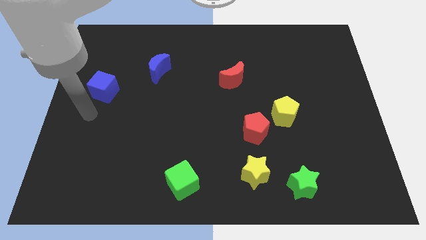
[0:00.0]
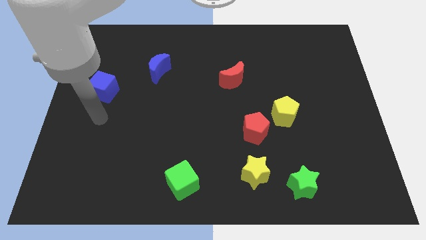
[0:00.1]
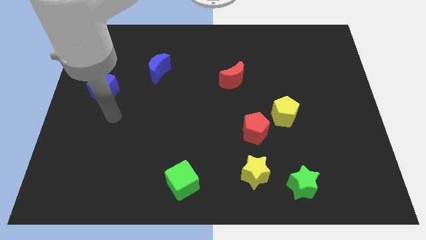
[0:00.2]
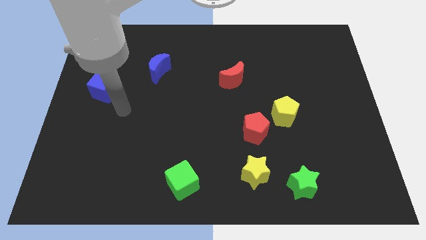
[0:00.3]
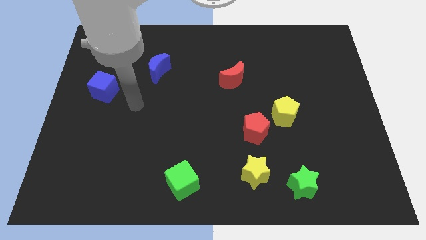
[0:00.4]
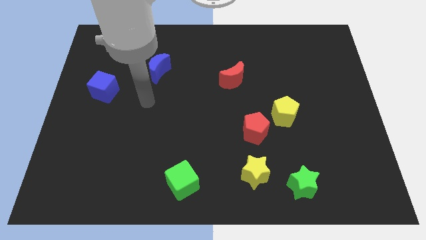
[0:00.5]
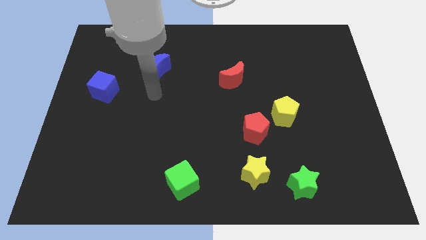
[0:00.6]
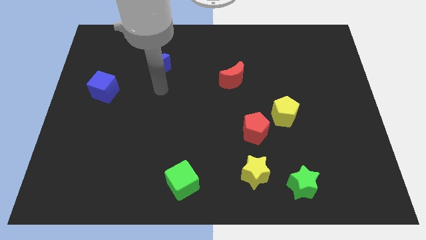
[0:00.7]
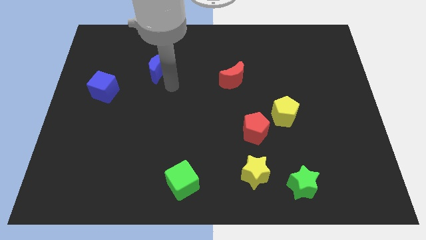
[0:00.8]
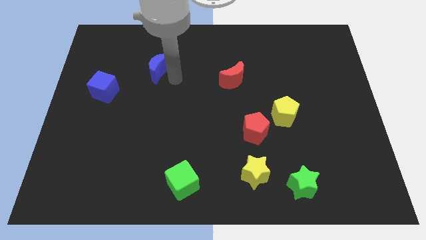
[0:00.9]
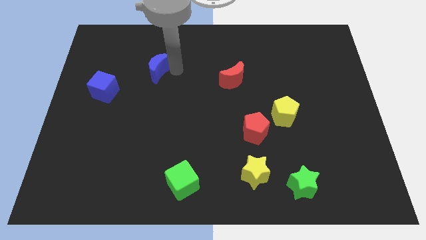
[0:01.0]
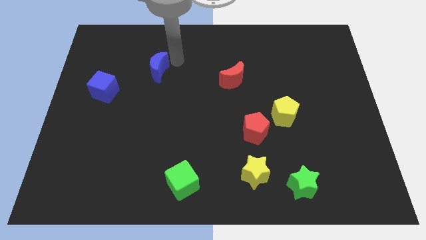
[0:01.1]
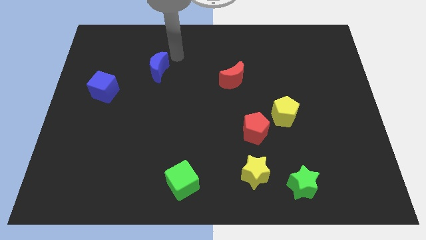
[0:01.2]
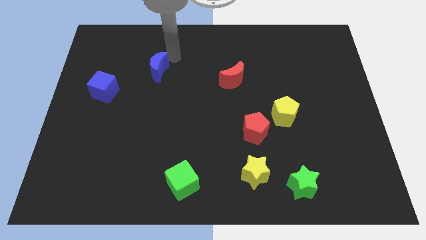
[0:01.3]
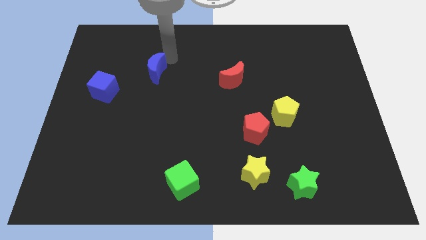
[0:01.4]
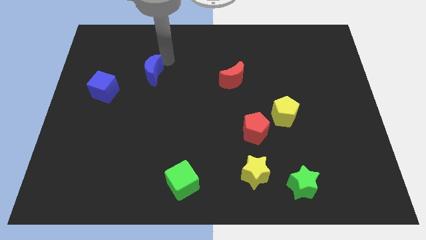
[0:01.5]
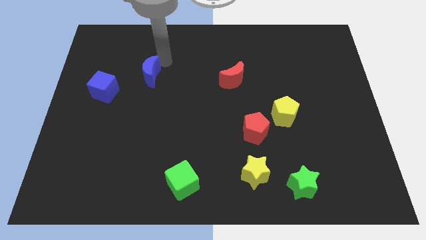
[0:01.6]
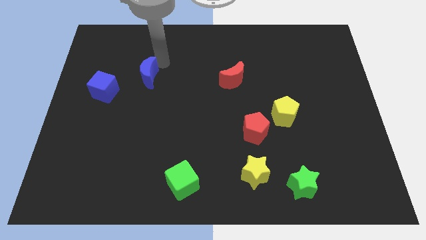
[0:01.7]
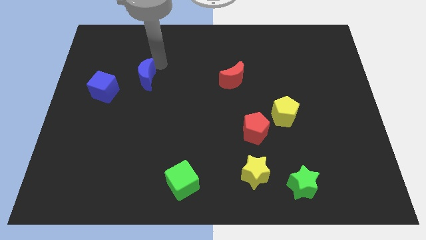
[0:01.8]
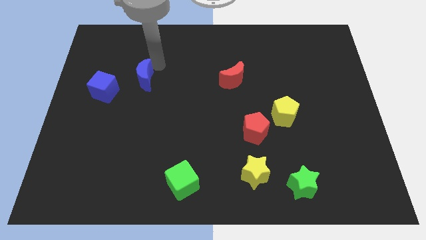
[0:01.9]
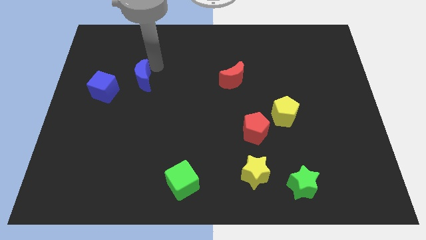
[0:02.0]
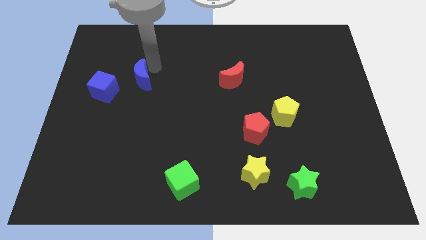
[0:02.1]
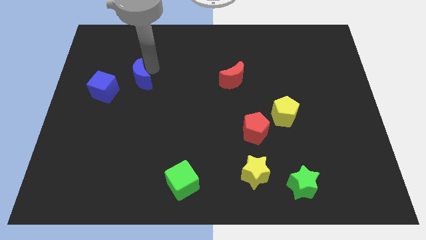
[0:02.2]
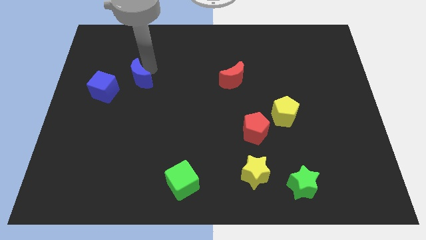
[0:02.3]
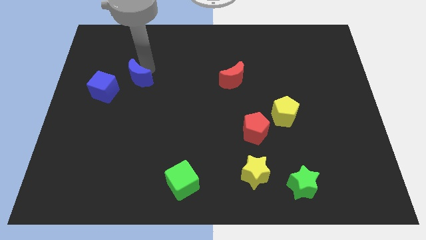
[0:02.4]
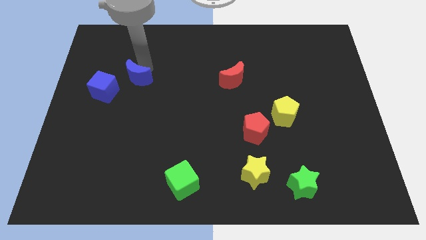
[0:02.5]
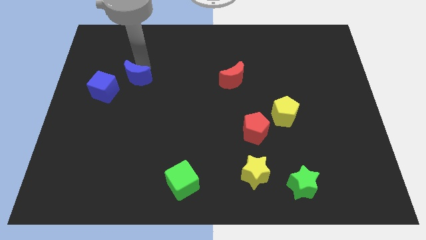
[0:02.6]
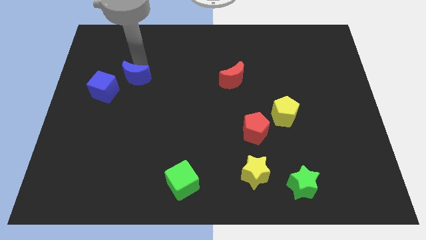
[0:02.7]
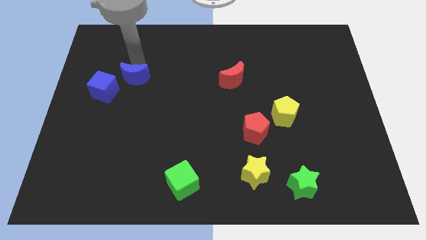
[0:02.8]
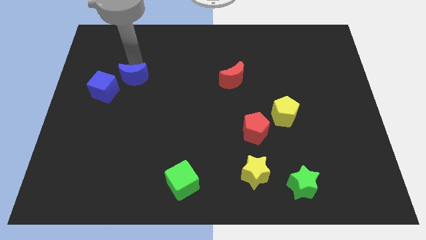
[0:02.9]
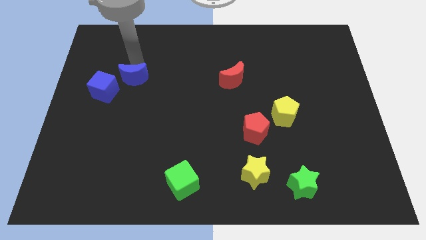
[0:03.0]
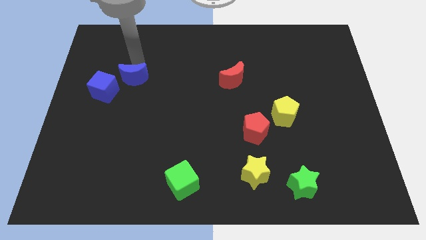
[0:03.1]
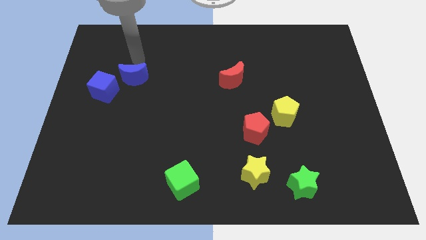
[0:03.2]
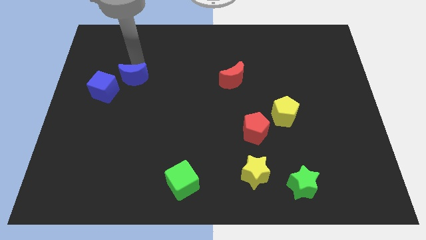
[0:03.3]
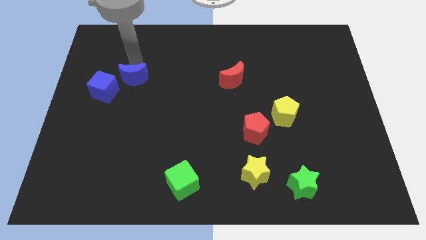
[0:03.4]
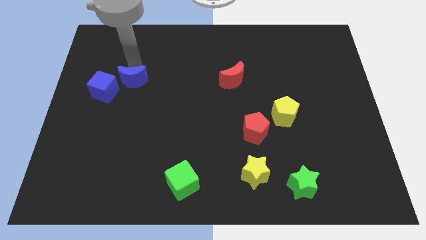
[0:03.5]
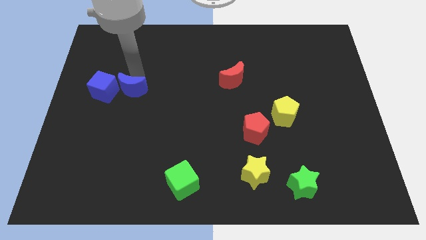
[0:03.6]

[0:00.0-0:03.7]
slightly move the blue moon downwards and left

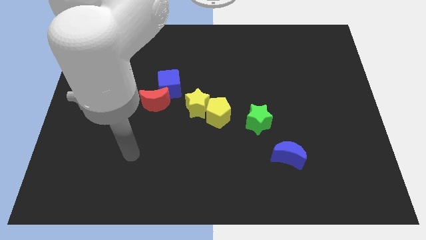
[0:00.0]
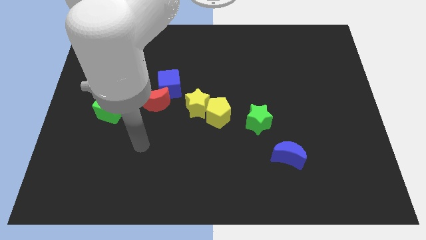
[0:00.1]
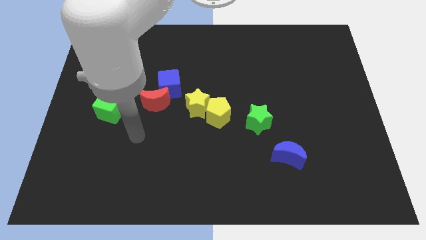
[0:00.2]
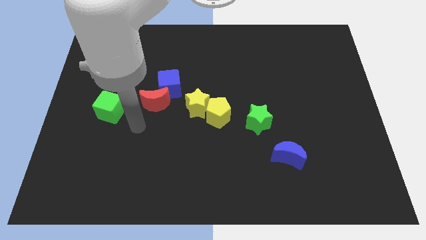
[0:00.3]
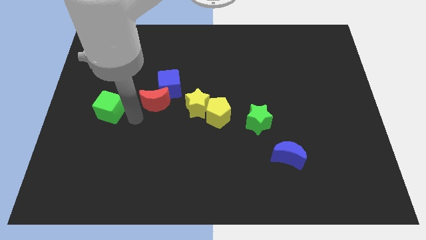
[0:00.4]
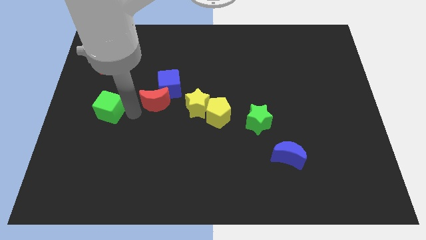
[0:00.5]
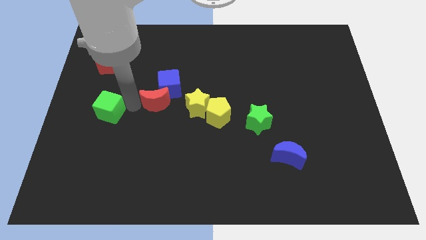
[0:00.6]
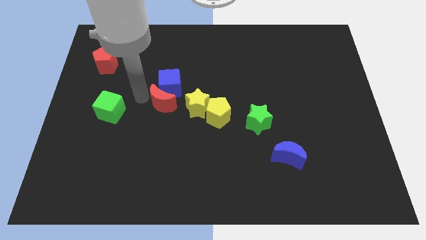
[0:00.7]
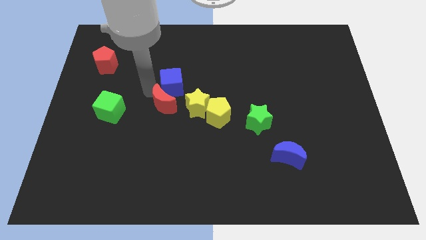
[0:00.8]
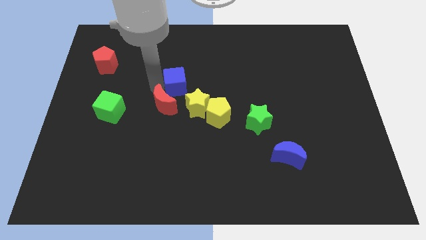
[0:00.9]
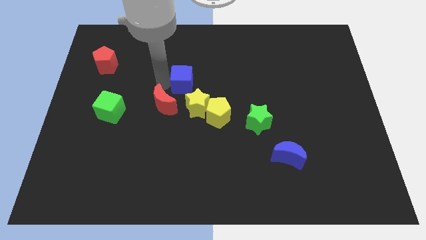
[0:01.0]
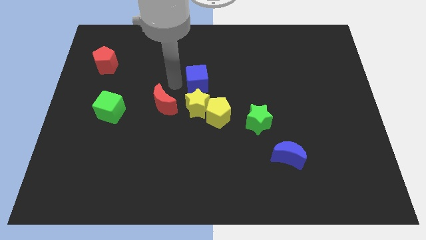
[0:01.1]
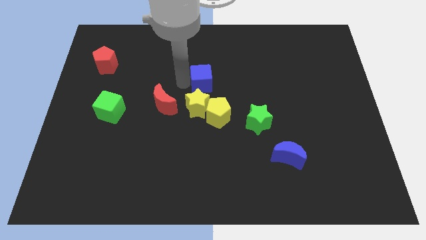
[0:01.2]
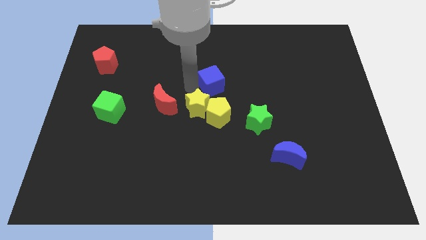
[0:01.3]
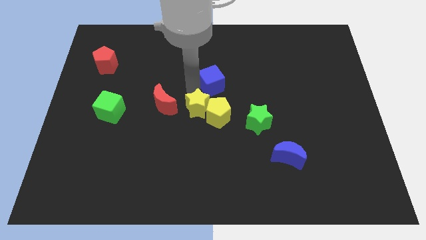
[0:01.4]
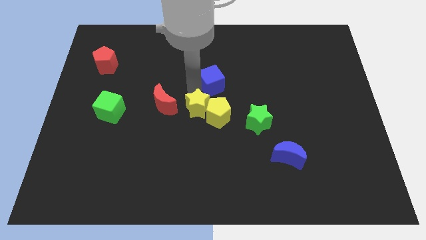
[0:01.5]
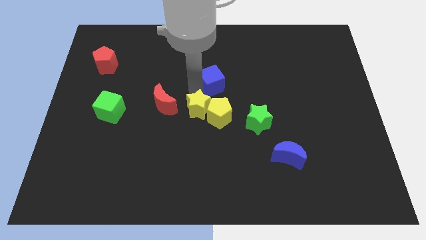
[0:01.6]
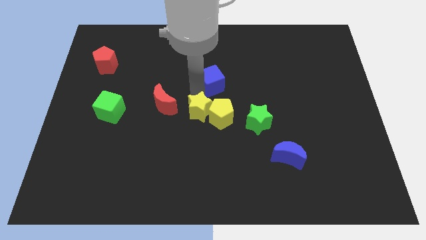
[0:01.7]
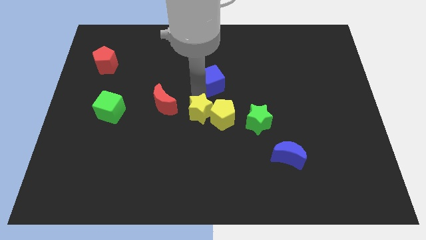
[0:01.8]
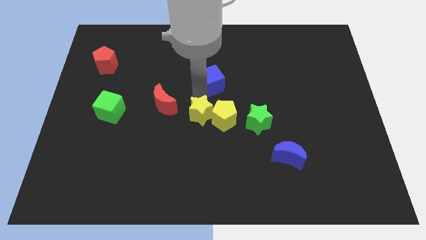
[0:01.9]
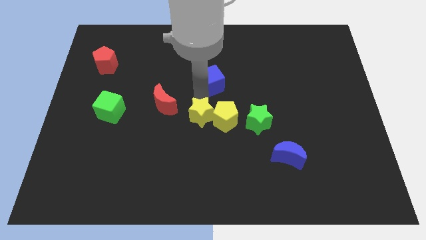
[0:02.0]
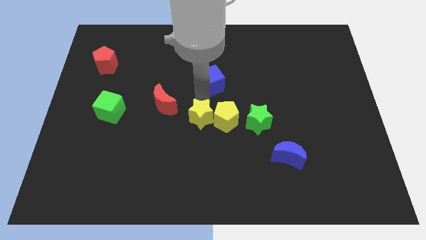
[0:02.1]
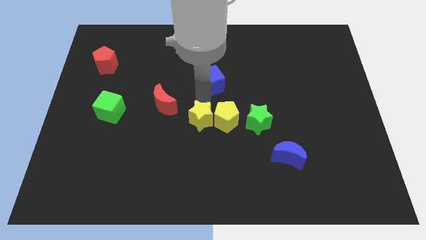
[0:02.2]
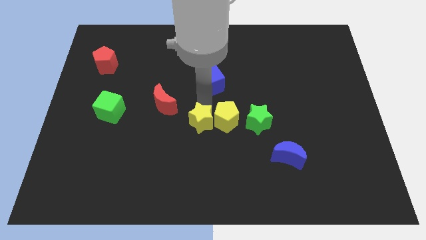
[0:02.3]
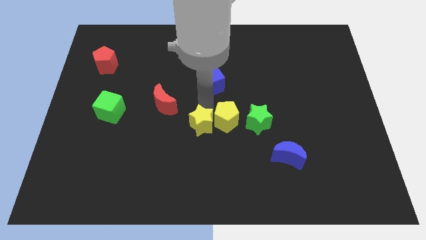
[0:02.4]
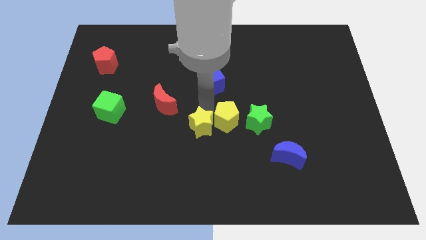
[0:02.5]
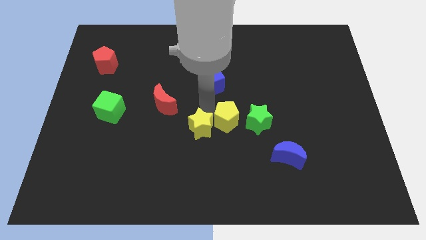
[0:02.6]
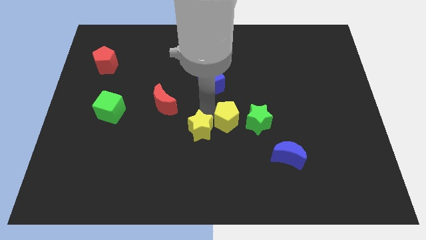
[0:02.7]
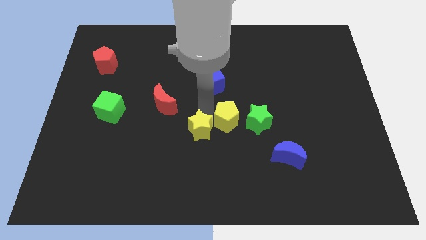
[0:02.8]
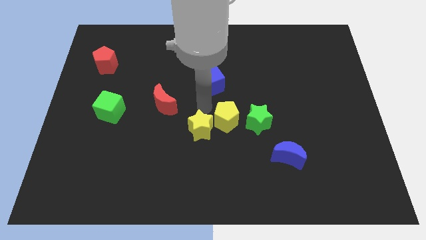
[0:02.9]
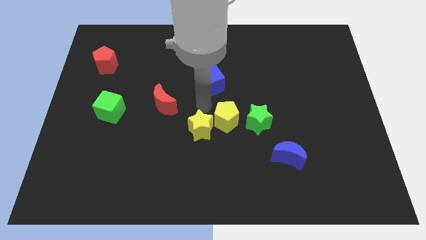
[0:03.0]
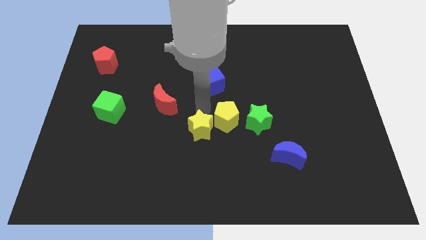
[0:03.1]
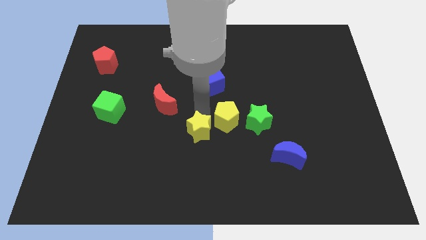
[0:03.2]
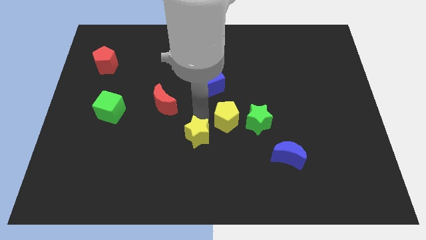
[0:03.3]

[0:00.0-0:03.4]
move the yellow star downwards a little bit

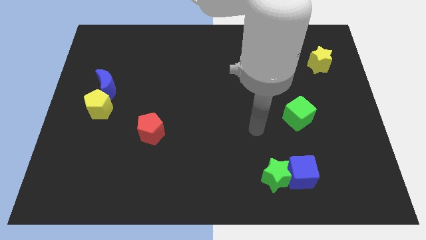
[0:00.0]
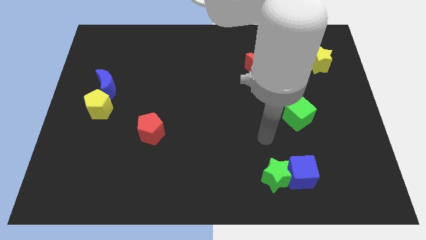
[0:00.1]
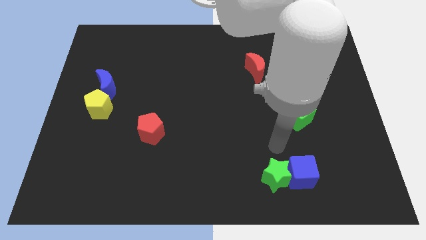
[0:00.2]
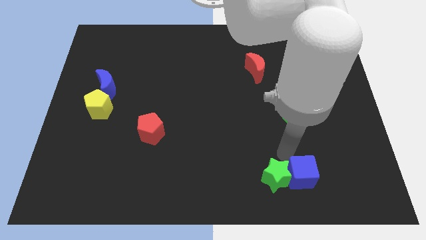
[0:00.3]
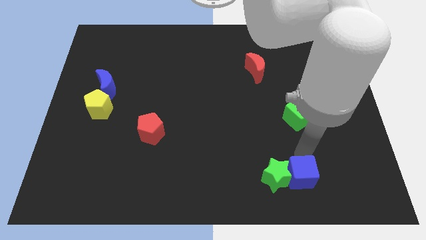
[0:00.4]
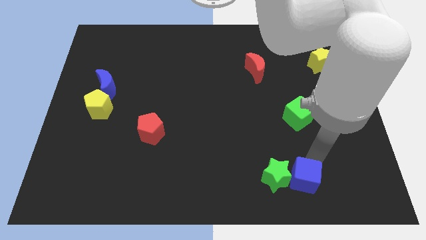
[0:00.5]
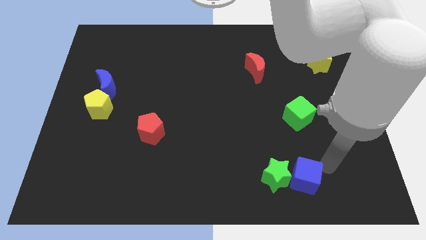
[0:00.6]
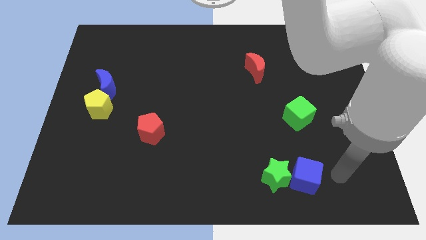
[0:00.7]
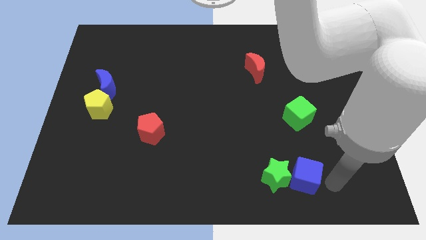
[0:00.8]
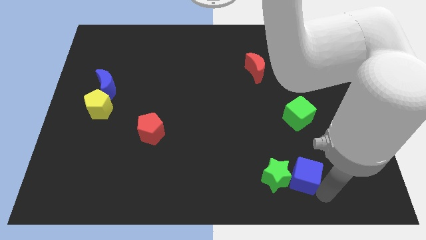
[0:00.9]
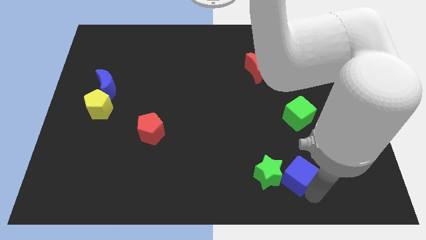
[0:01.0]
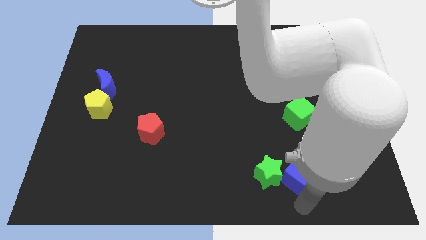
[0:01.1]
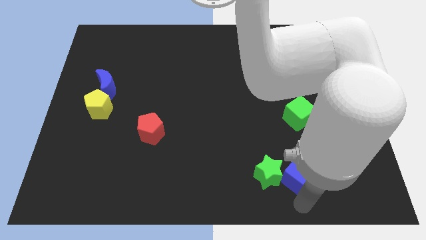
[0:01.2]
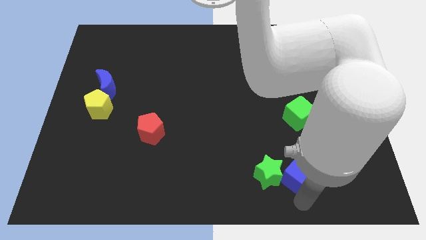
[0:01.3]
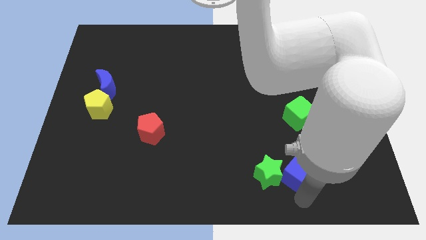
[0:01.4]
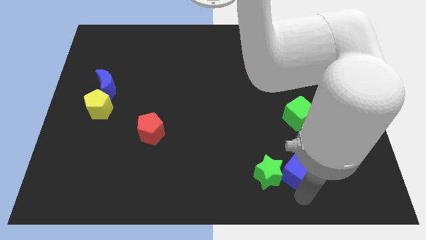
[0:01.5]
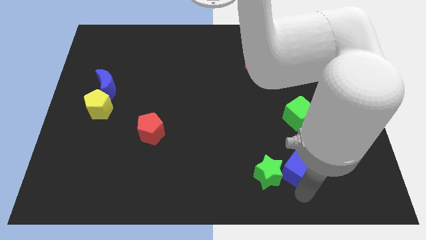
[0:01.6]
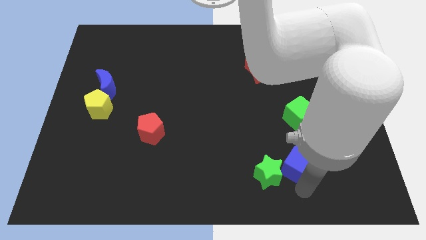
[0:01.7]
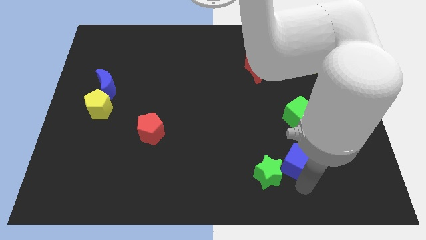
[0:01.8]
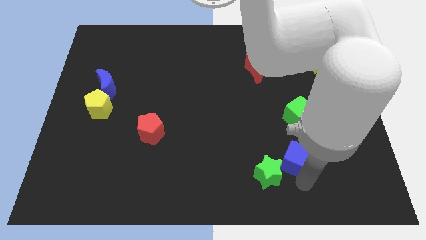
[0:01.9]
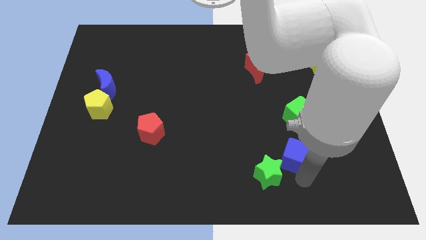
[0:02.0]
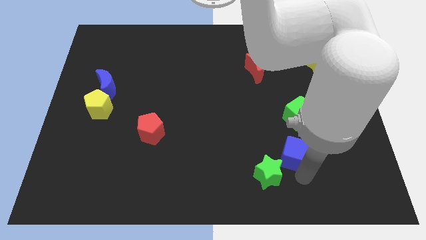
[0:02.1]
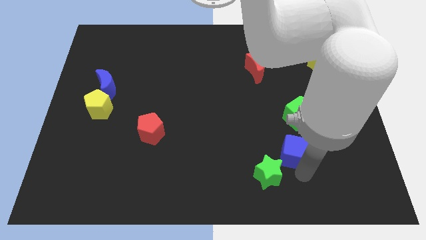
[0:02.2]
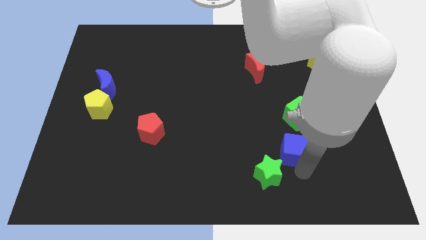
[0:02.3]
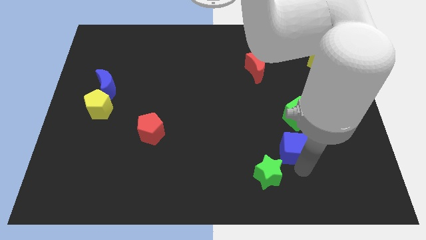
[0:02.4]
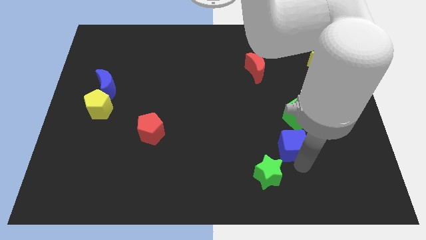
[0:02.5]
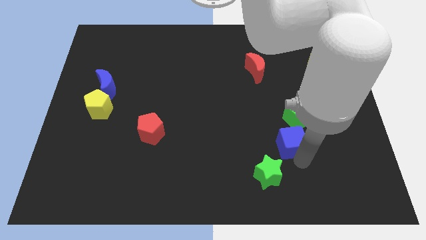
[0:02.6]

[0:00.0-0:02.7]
slightly move the blue cube upwards
